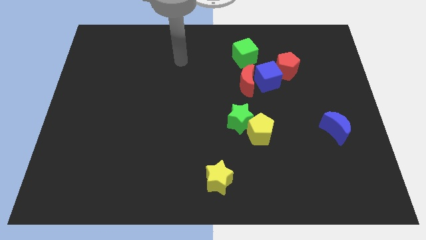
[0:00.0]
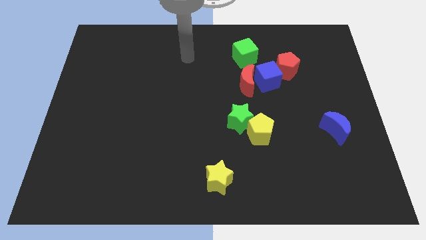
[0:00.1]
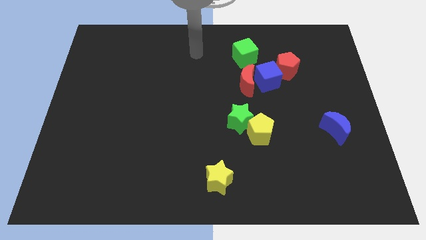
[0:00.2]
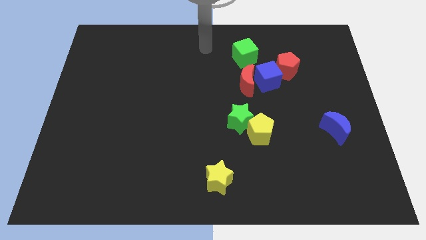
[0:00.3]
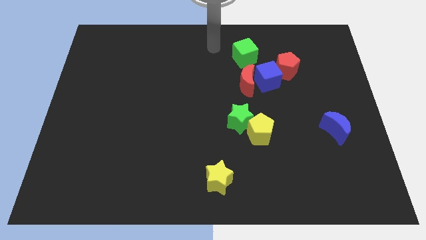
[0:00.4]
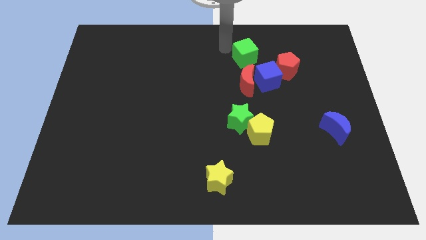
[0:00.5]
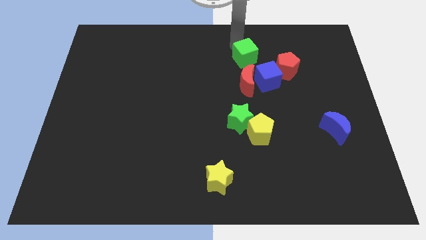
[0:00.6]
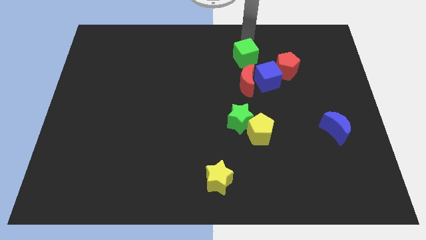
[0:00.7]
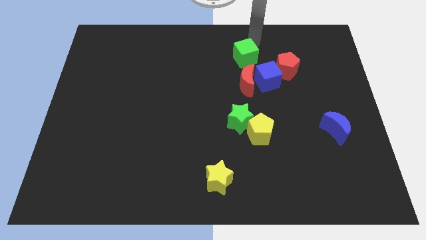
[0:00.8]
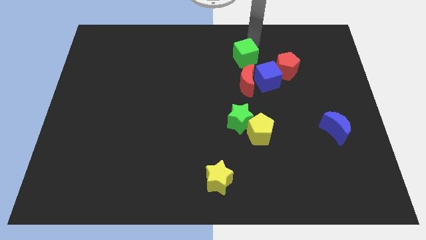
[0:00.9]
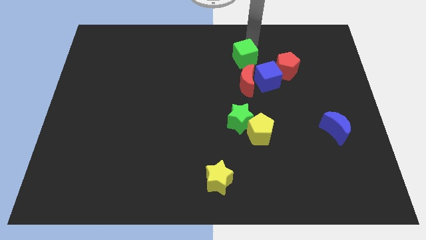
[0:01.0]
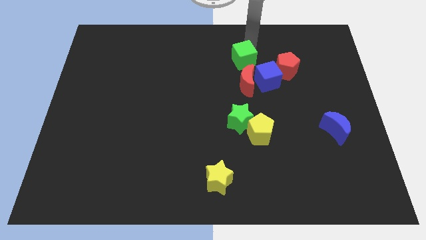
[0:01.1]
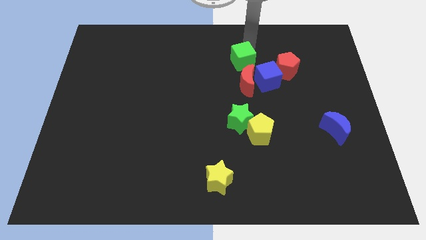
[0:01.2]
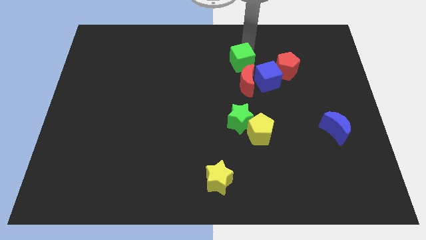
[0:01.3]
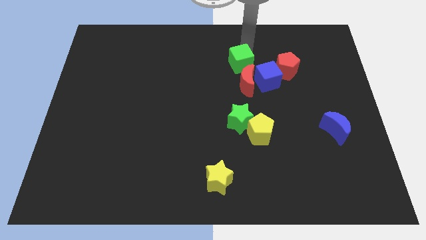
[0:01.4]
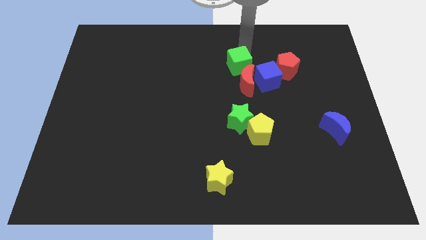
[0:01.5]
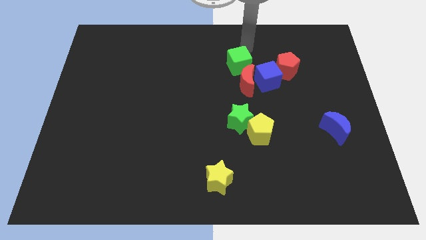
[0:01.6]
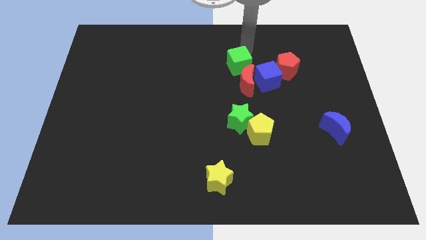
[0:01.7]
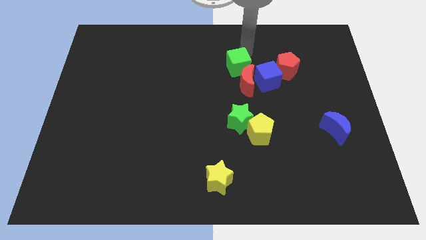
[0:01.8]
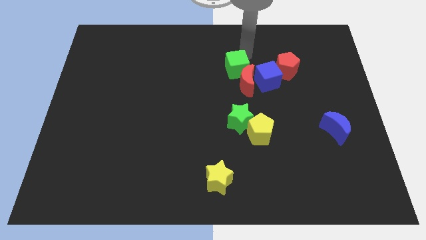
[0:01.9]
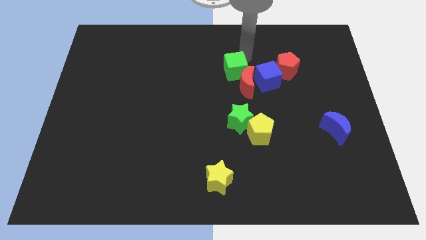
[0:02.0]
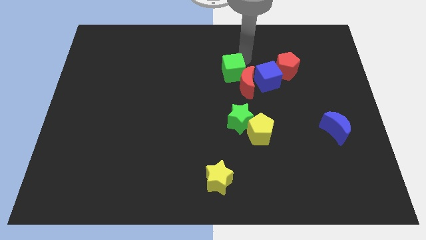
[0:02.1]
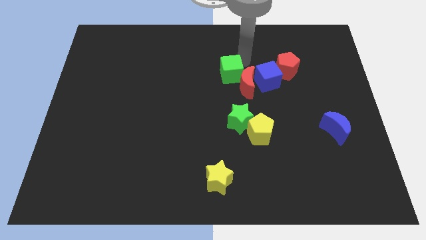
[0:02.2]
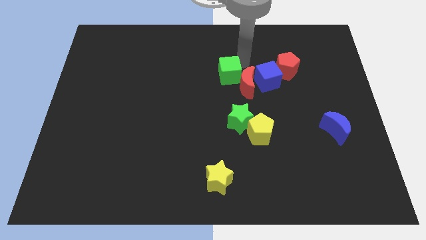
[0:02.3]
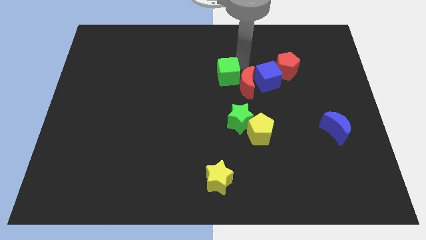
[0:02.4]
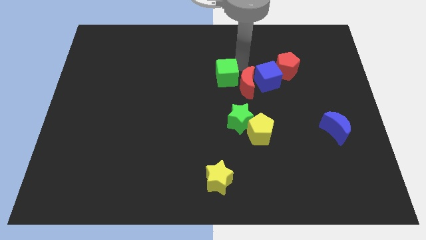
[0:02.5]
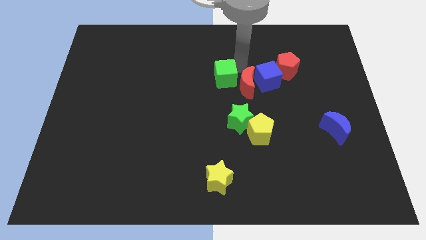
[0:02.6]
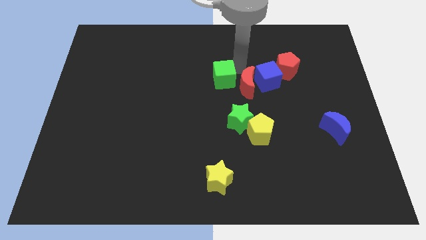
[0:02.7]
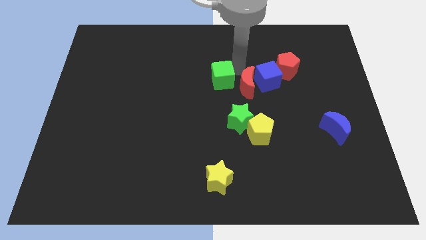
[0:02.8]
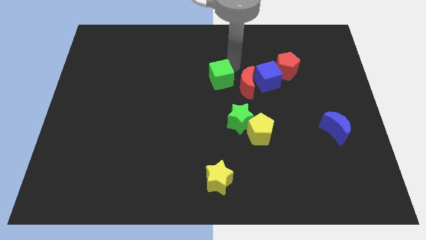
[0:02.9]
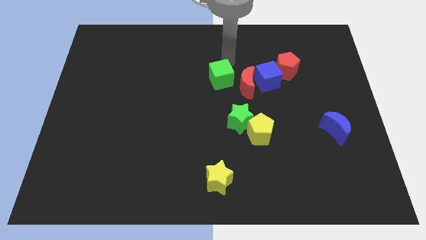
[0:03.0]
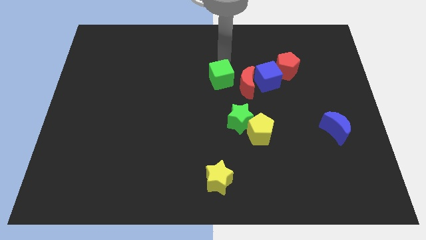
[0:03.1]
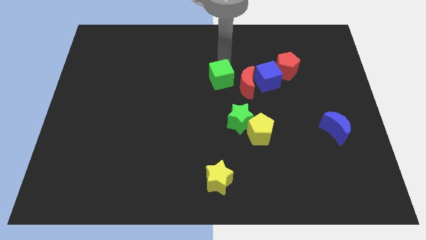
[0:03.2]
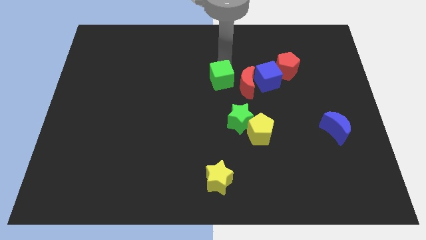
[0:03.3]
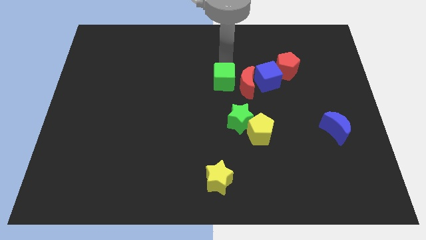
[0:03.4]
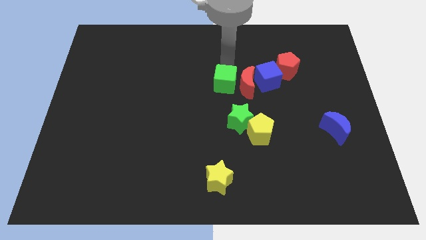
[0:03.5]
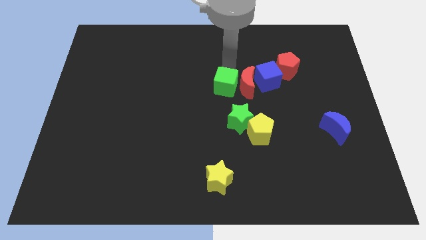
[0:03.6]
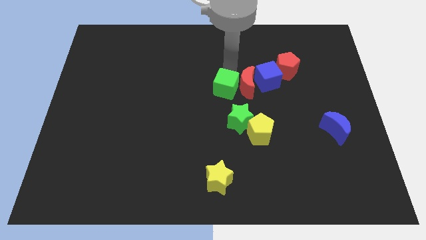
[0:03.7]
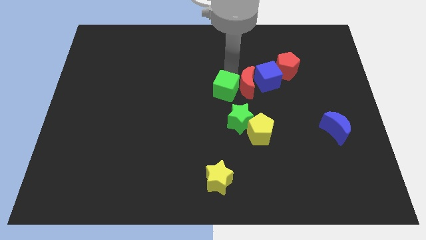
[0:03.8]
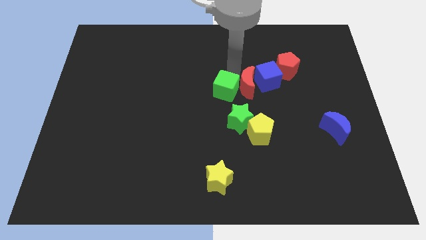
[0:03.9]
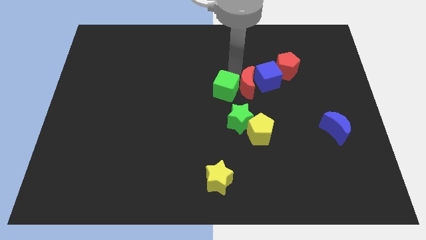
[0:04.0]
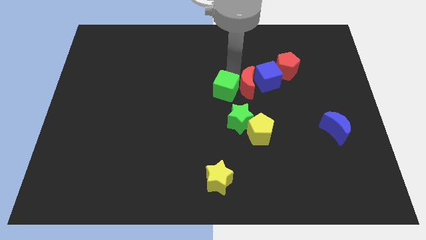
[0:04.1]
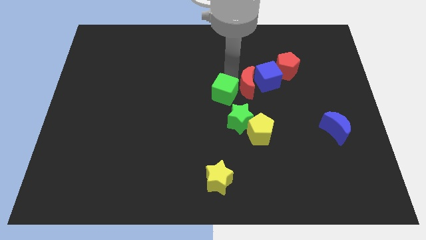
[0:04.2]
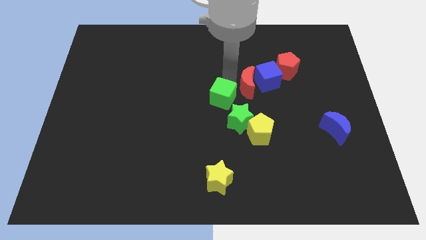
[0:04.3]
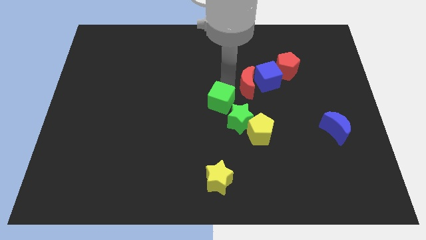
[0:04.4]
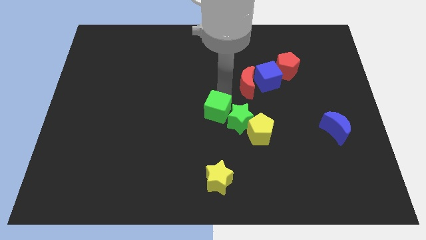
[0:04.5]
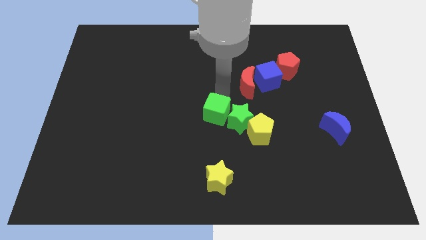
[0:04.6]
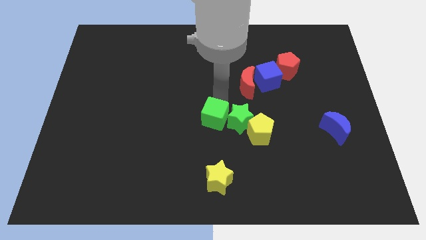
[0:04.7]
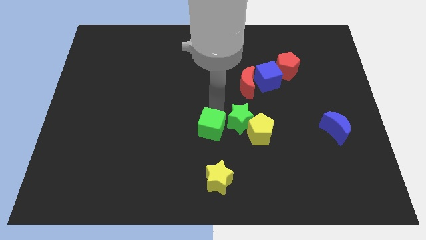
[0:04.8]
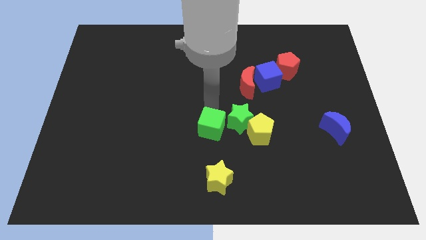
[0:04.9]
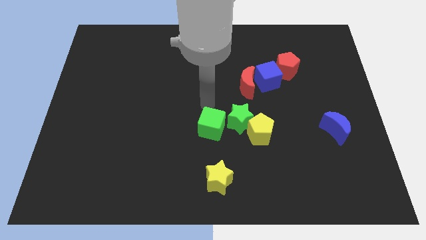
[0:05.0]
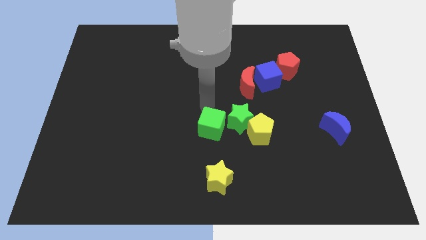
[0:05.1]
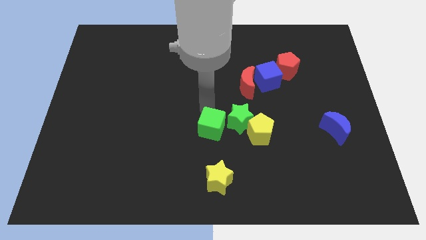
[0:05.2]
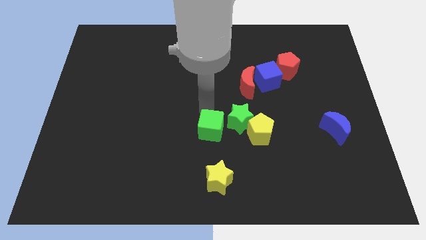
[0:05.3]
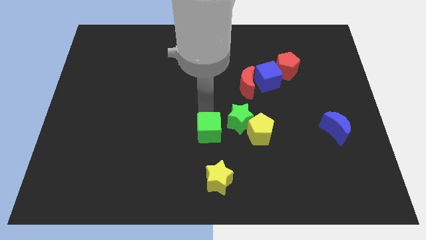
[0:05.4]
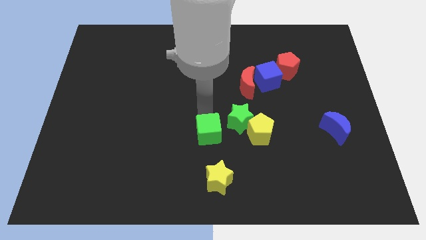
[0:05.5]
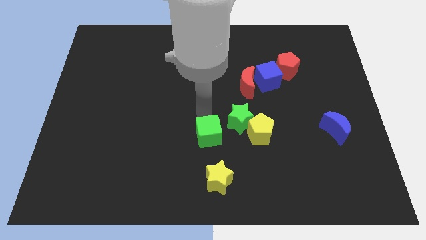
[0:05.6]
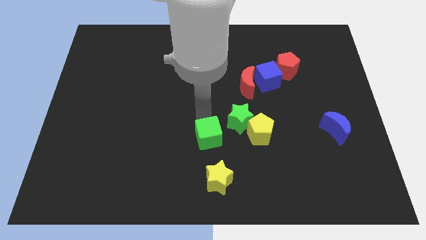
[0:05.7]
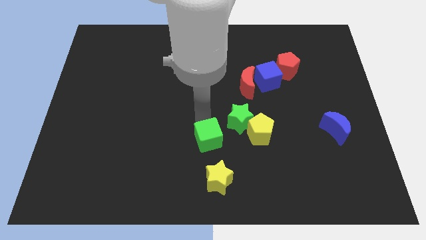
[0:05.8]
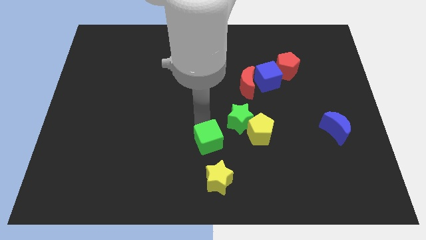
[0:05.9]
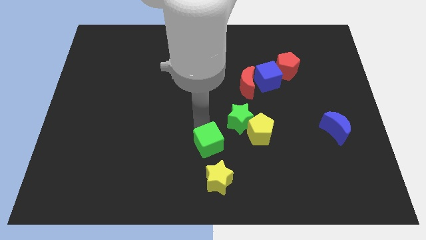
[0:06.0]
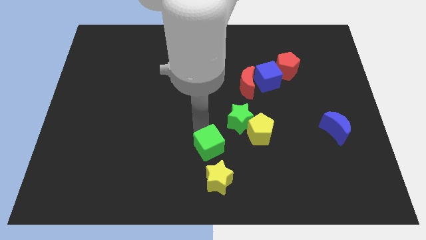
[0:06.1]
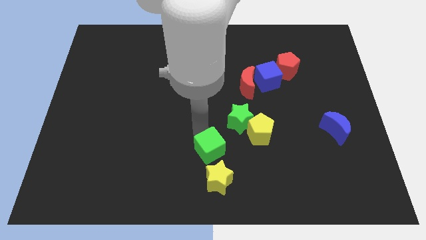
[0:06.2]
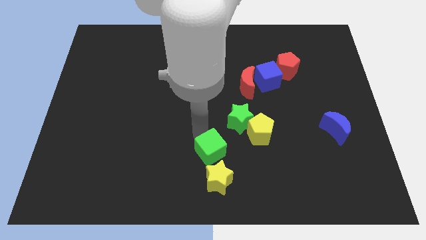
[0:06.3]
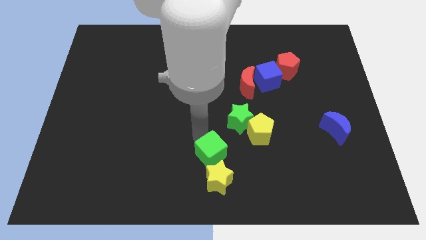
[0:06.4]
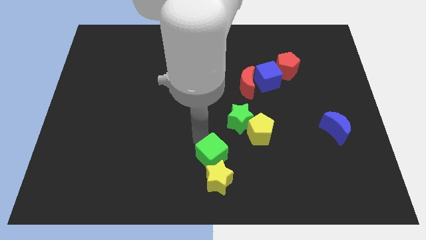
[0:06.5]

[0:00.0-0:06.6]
push the green cube to the yellow star
